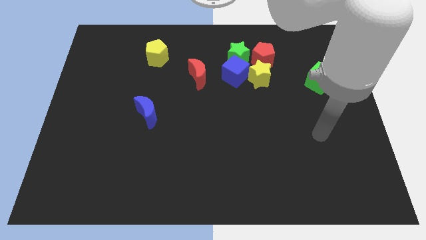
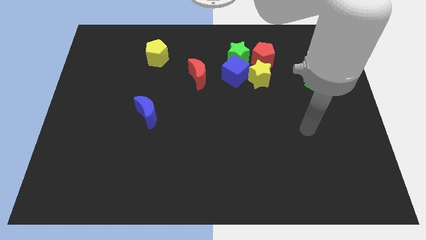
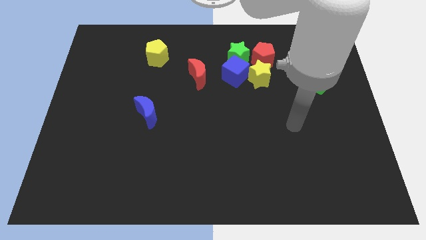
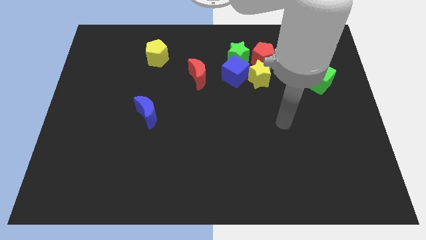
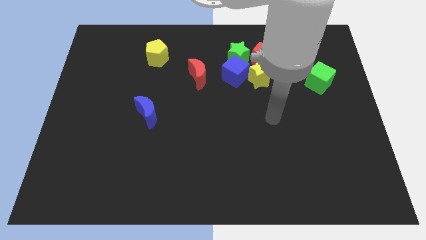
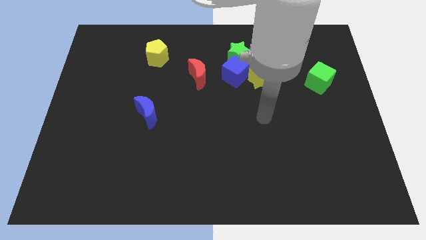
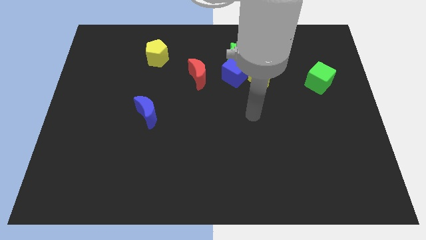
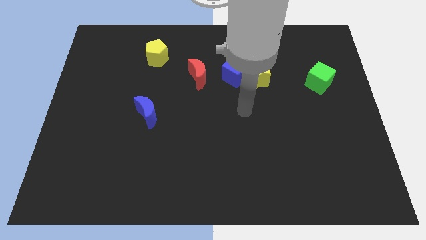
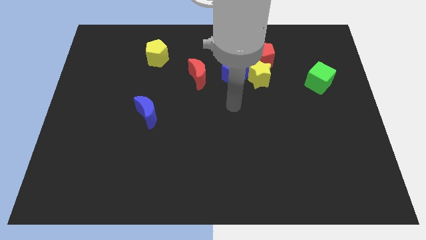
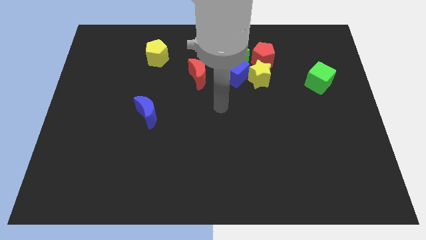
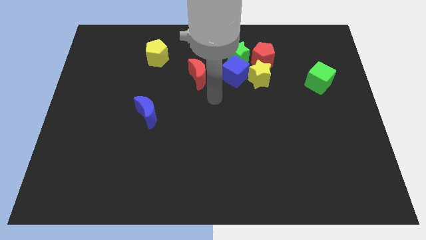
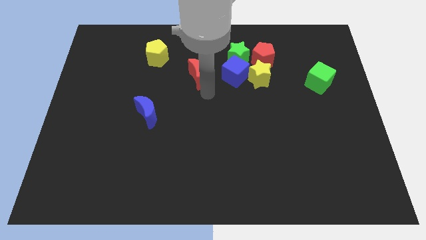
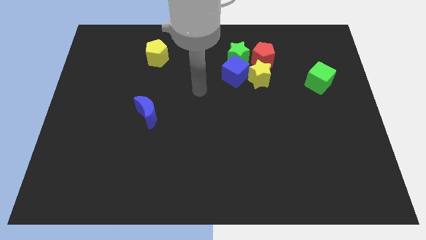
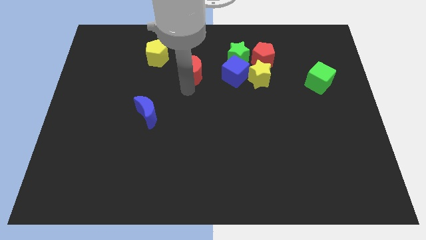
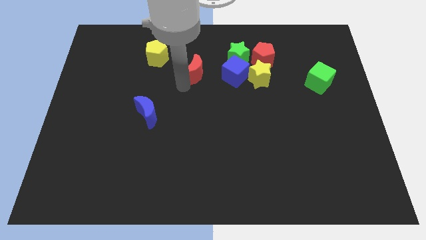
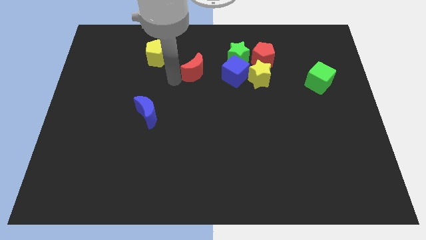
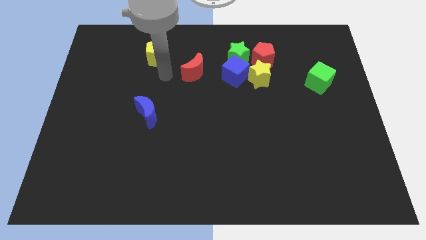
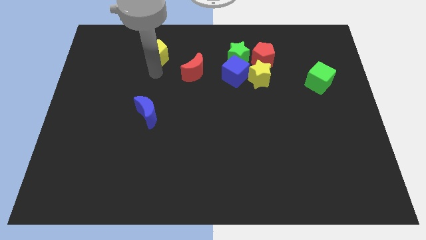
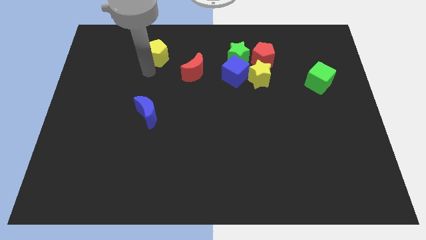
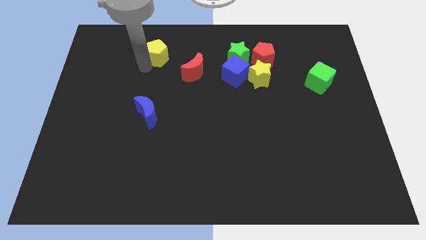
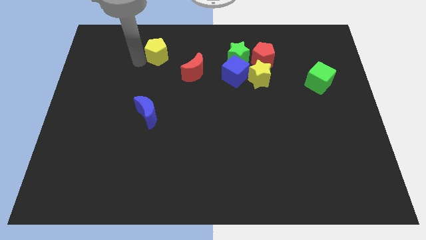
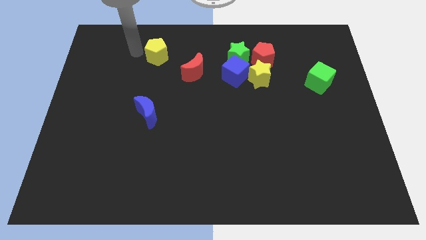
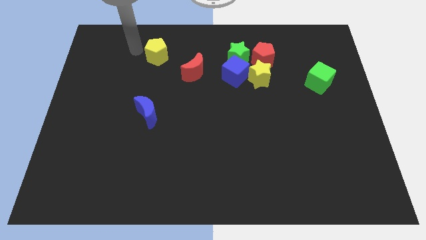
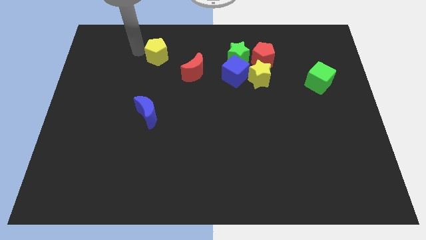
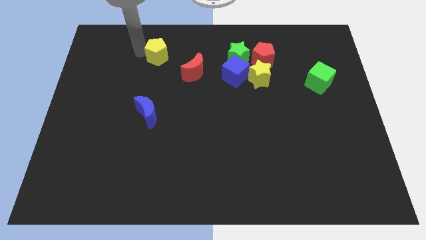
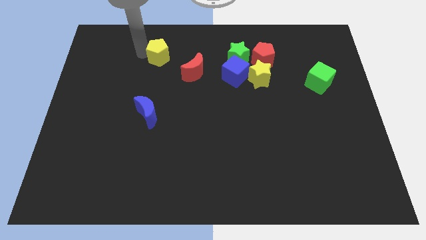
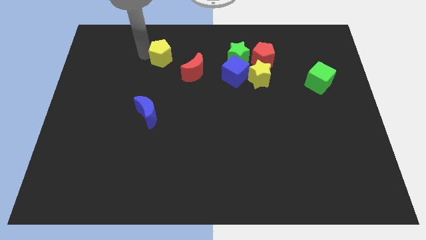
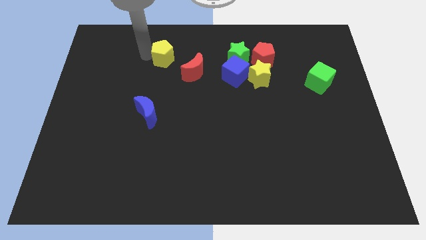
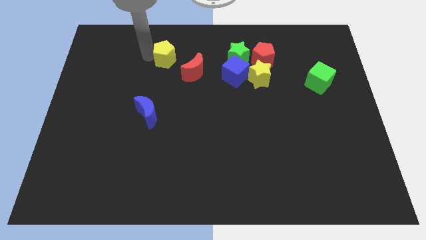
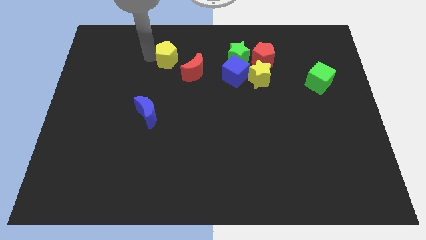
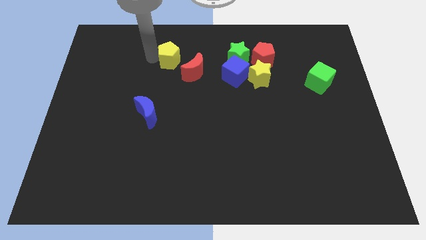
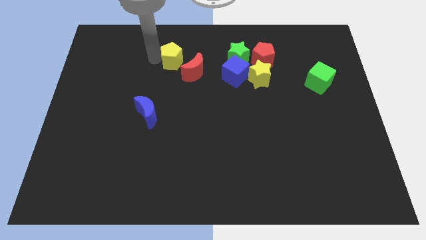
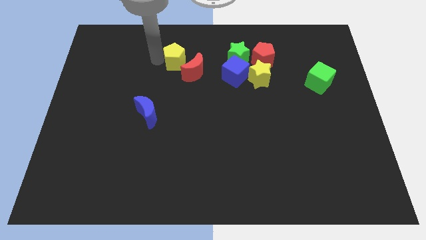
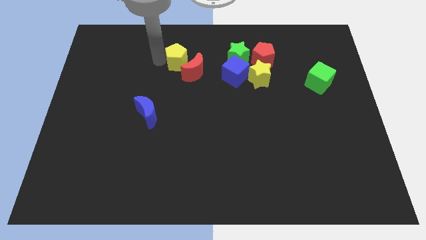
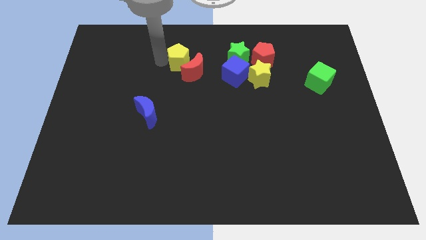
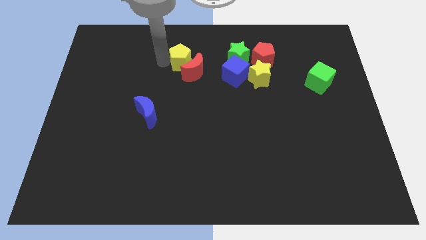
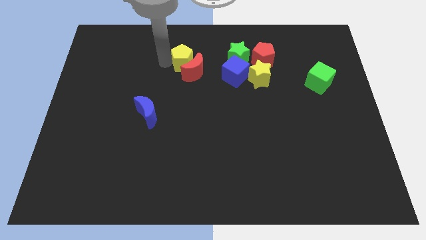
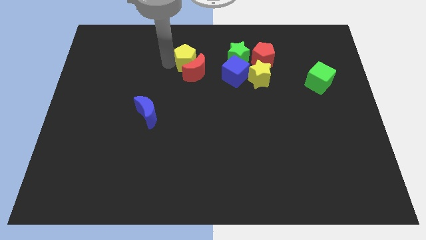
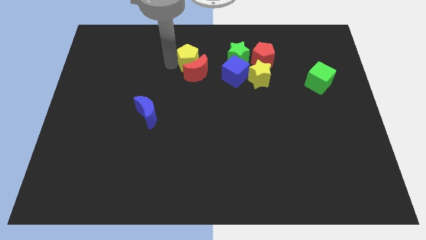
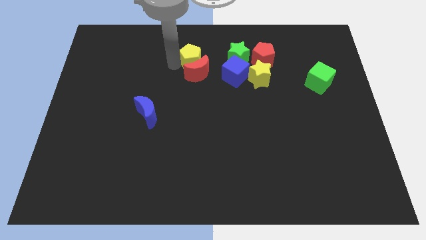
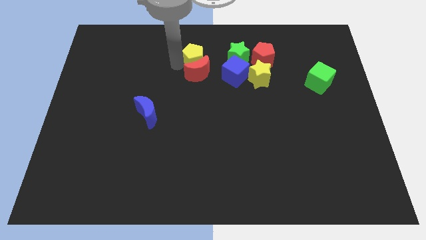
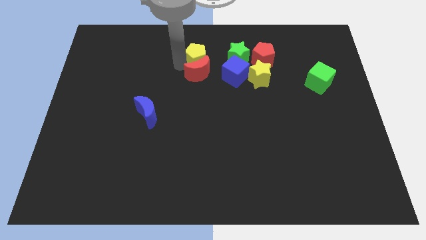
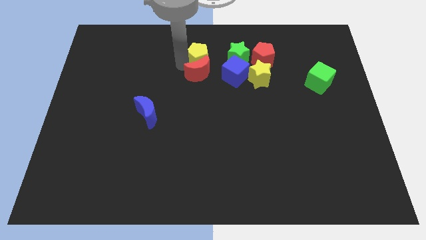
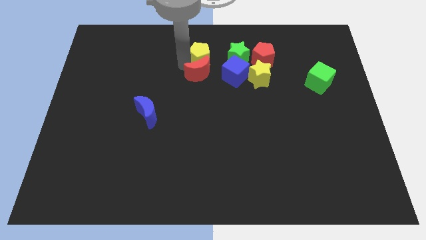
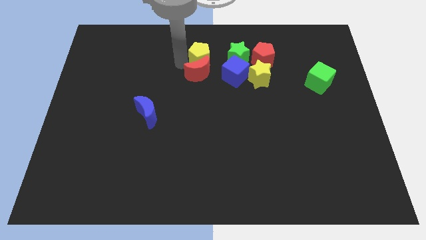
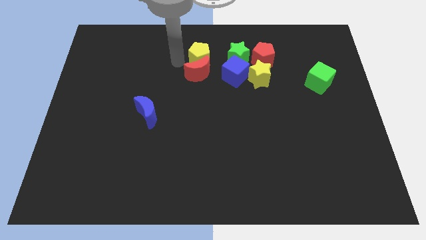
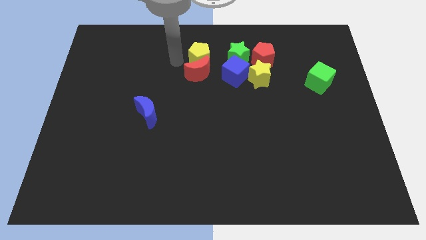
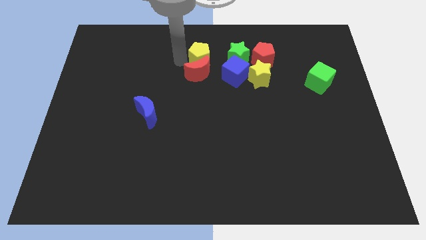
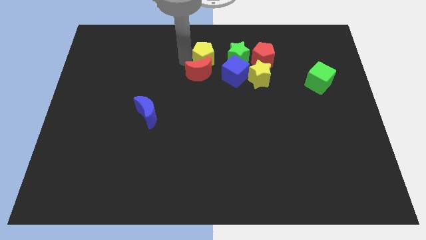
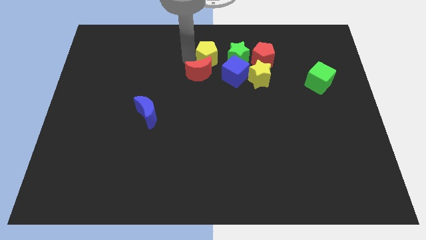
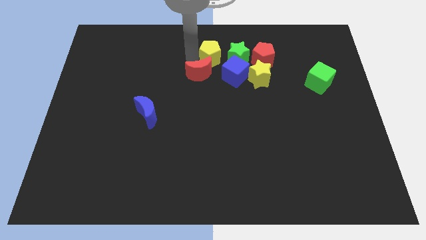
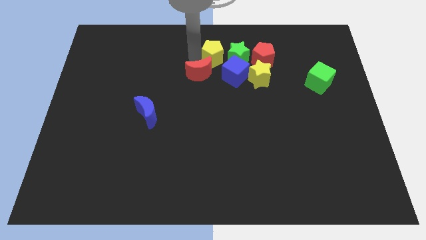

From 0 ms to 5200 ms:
slide the yellow pentagon towards the green star

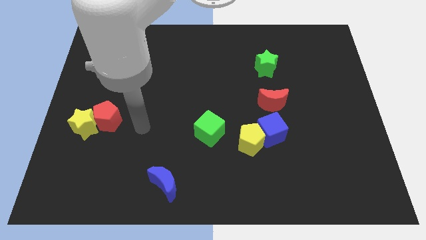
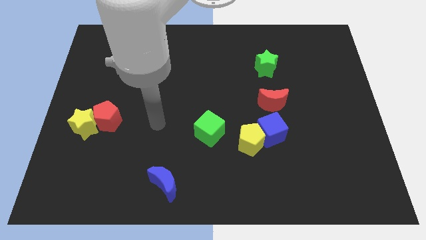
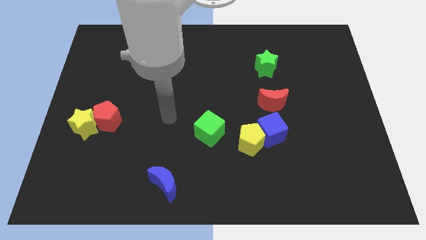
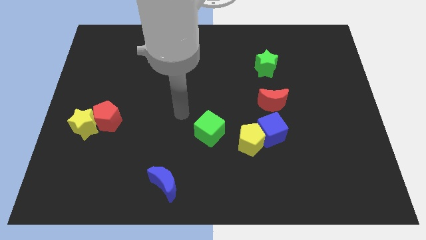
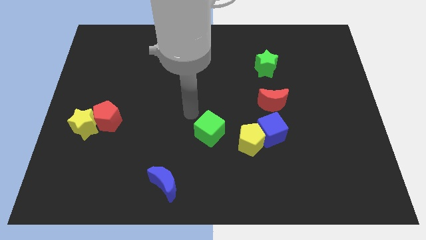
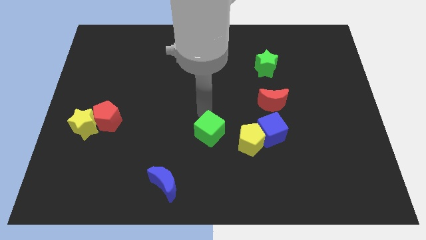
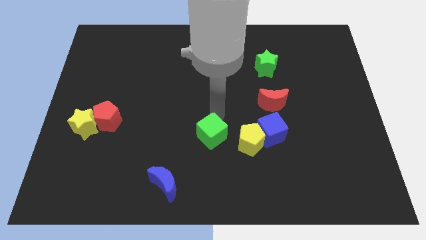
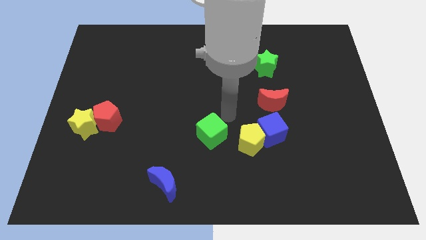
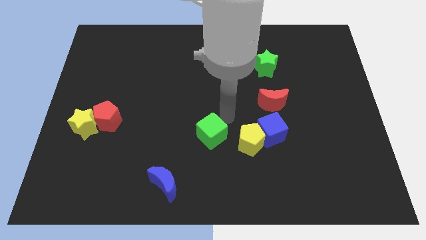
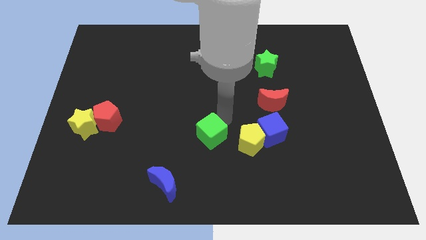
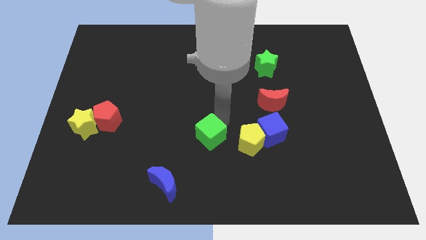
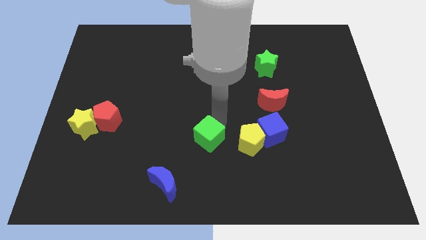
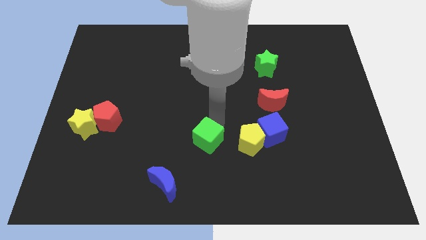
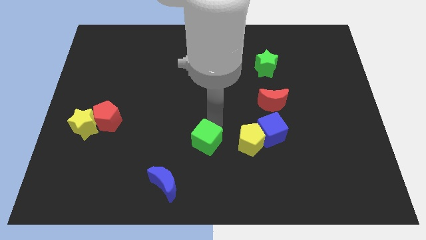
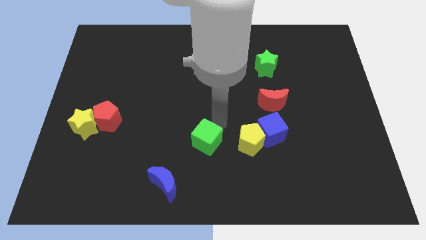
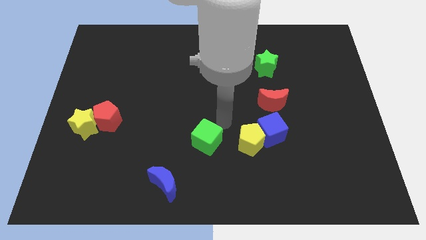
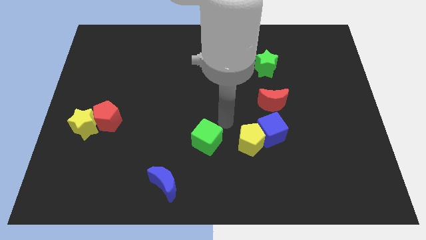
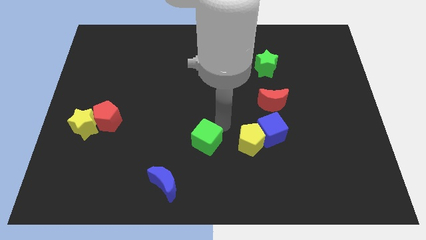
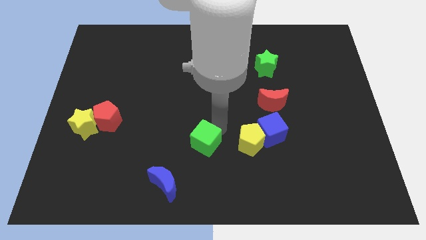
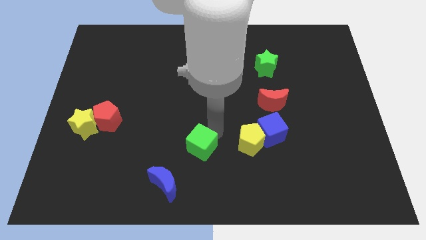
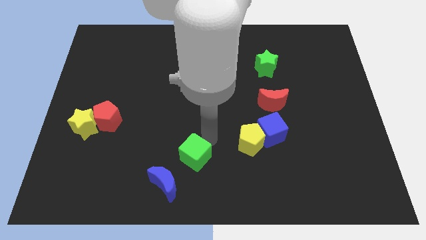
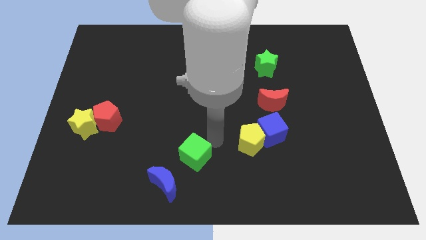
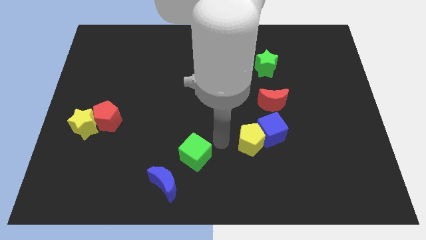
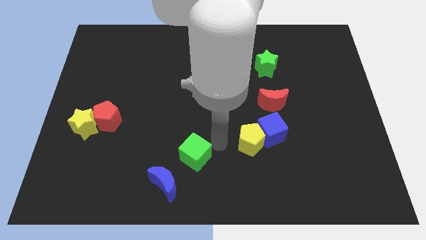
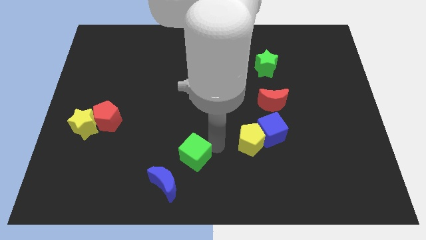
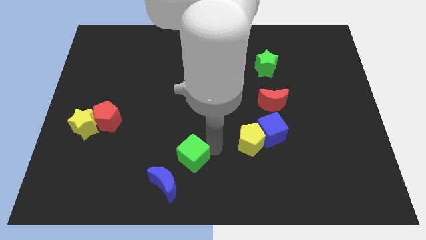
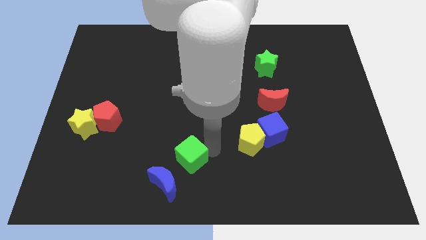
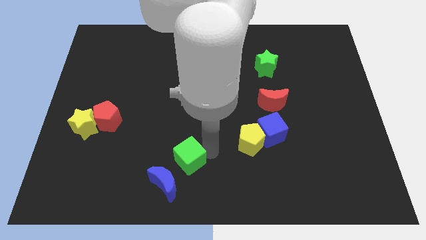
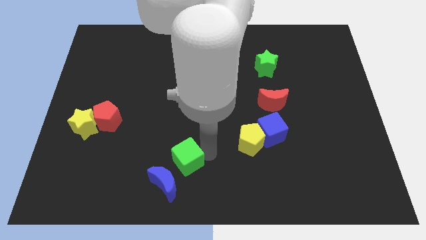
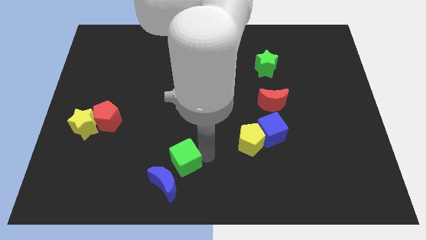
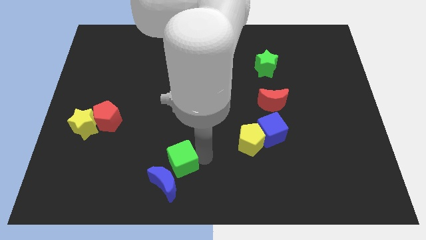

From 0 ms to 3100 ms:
put the green cube next to the blue moon
